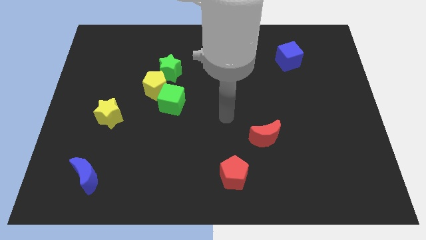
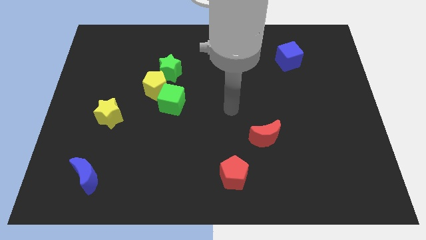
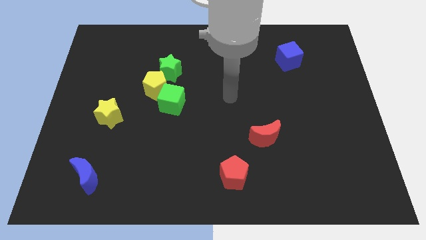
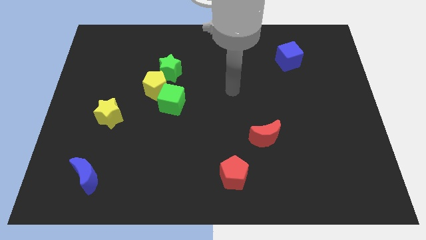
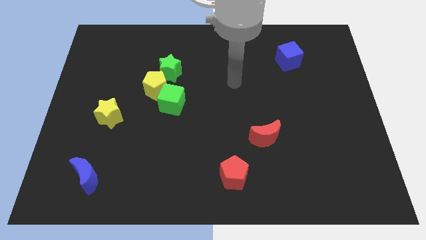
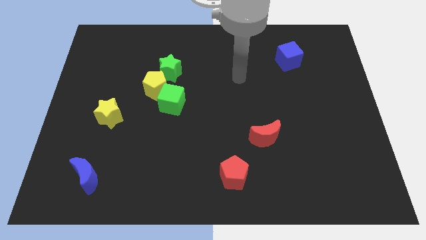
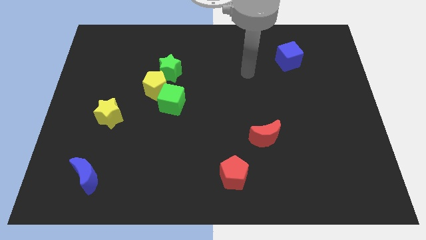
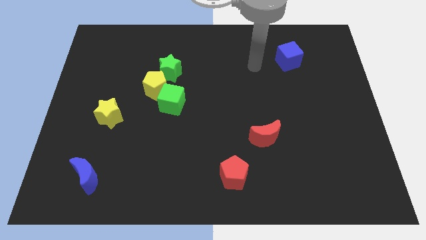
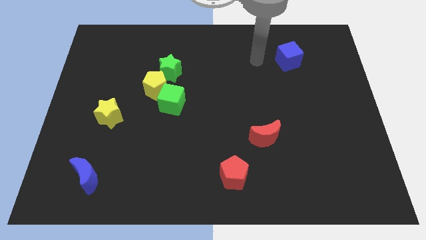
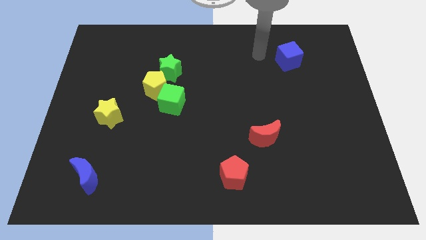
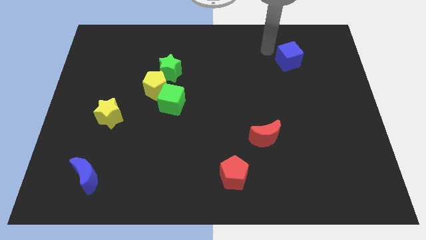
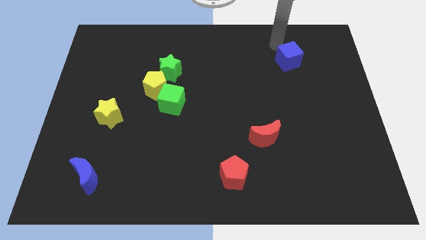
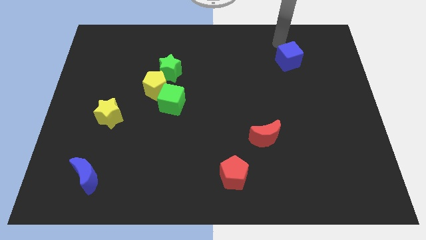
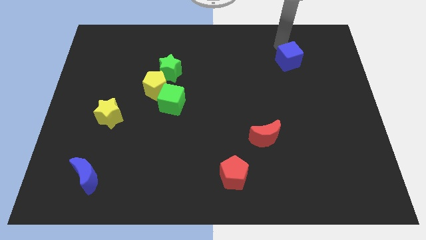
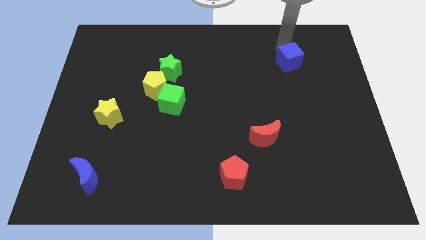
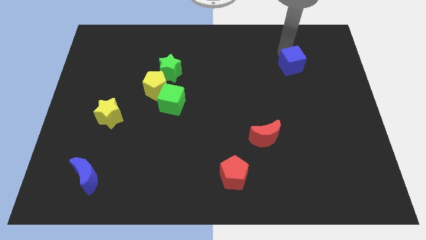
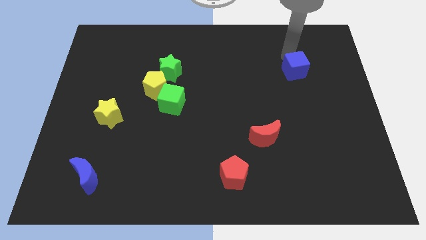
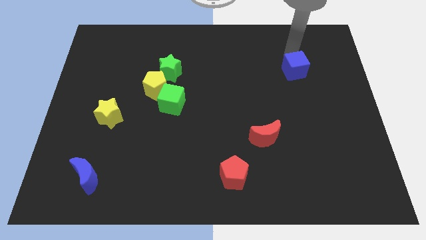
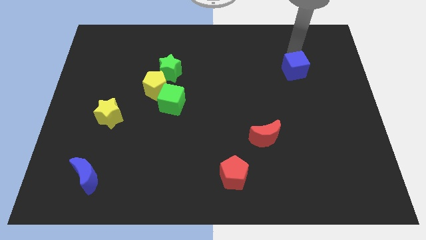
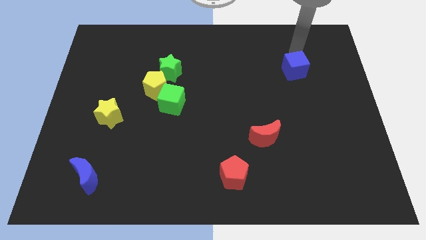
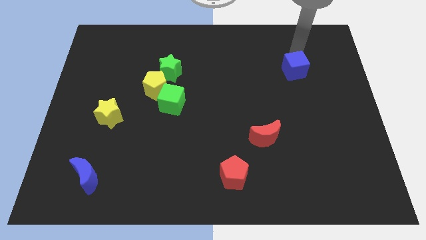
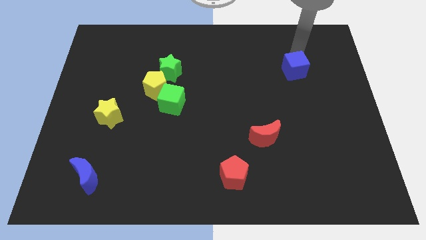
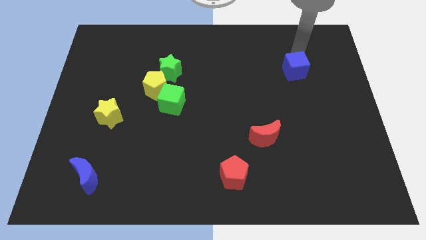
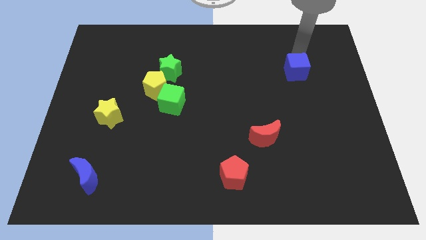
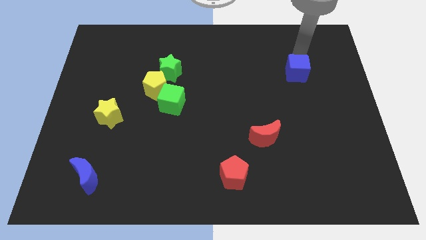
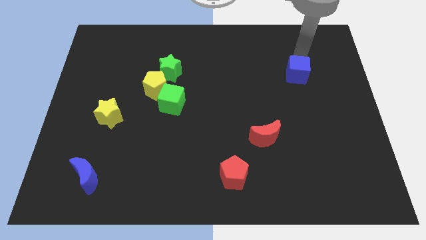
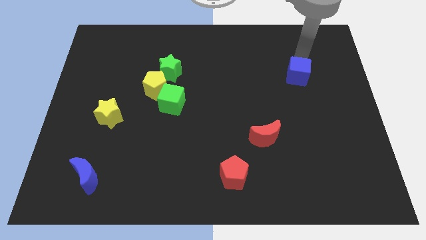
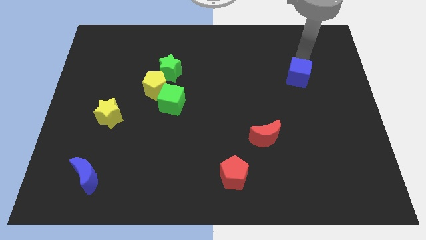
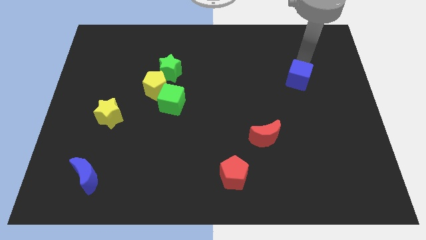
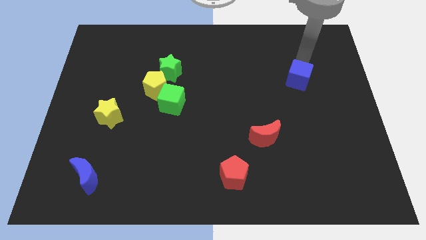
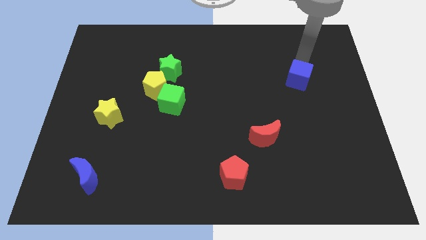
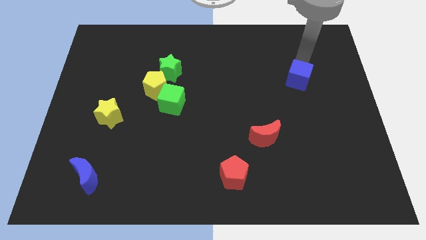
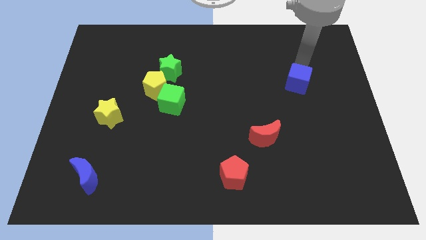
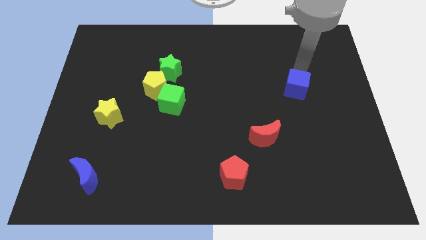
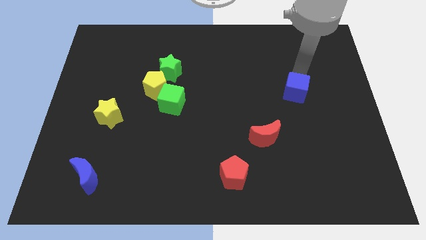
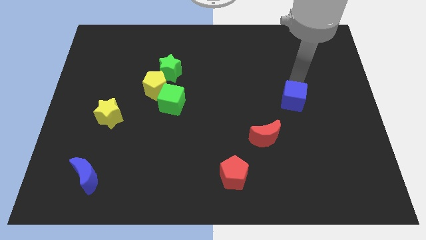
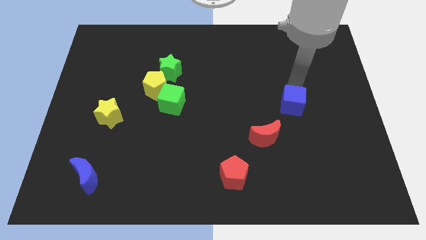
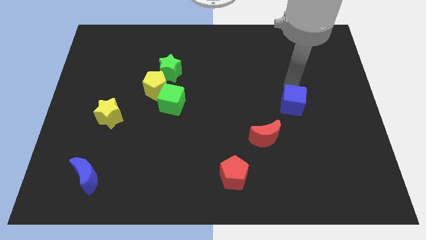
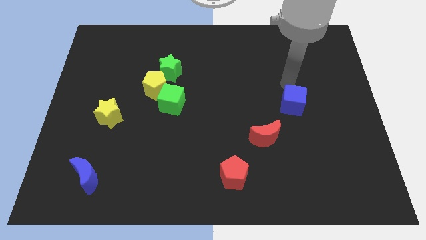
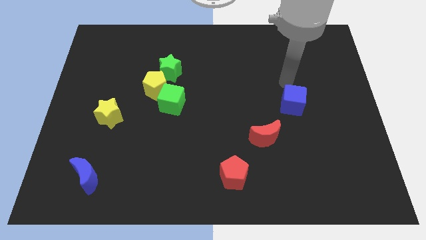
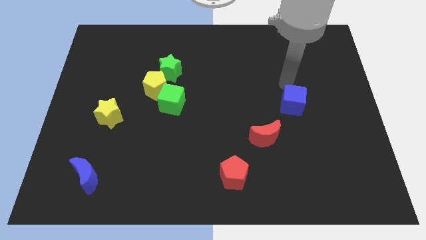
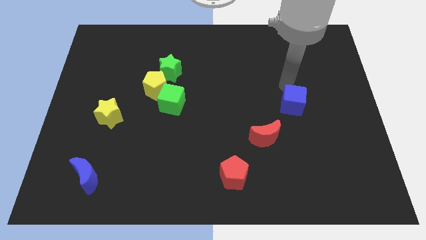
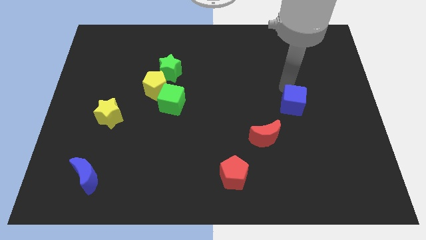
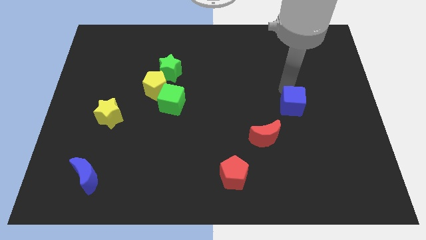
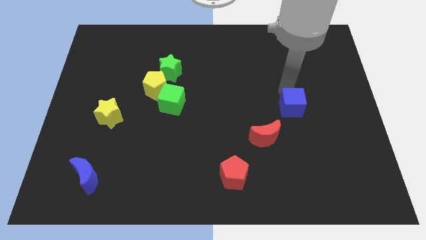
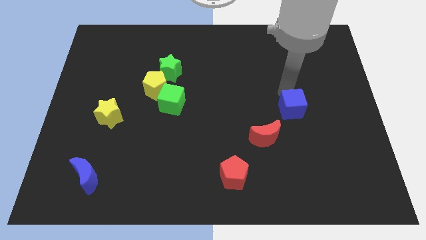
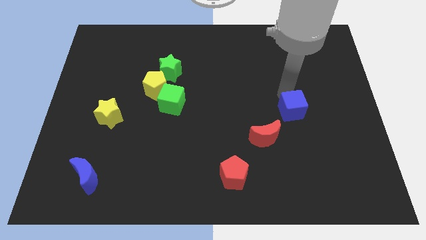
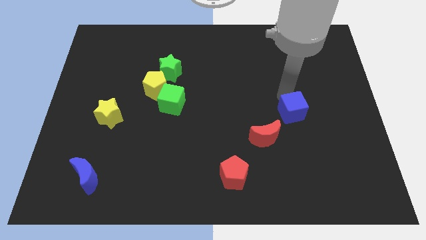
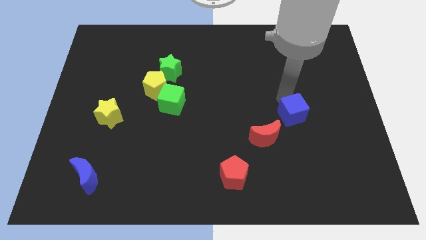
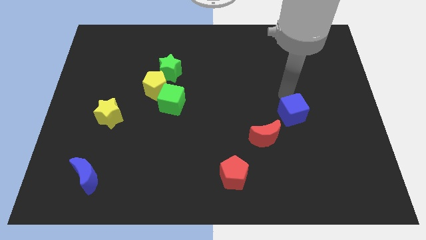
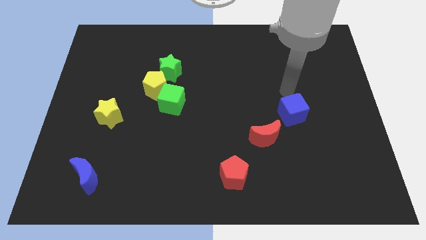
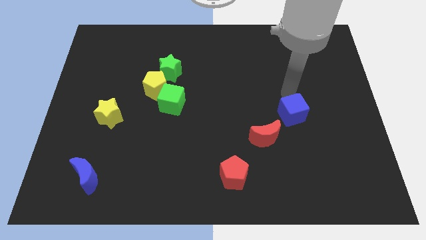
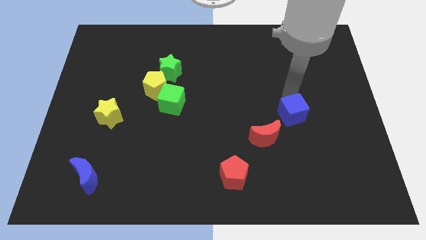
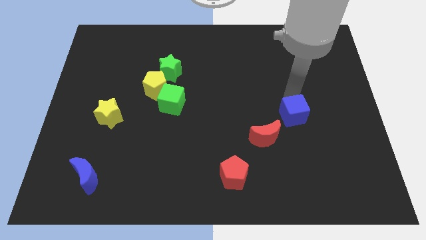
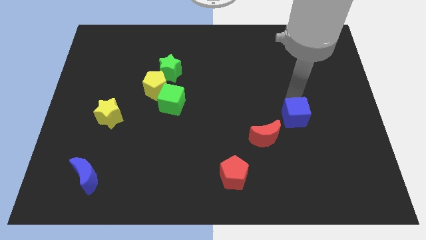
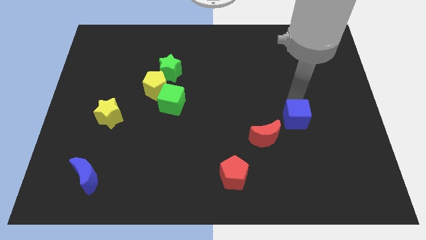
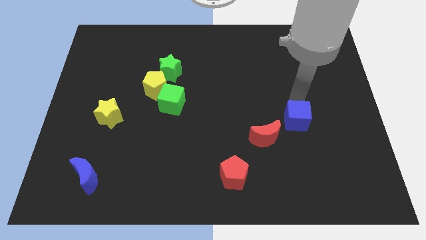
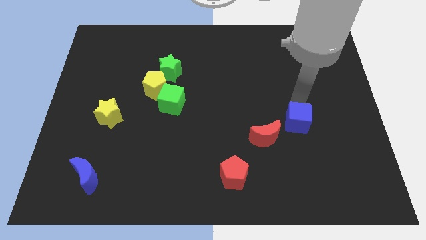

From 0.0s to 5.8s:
push the blue cube downwards

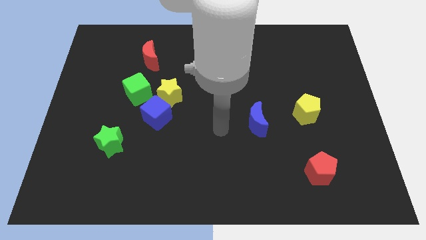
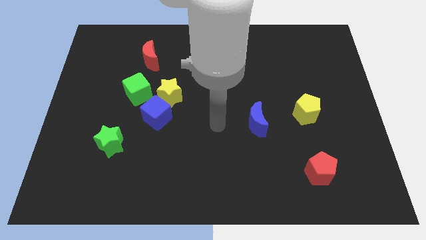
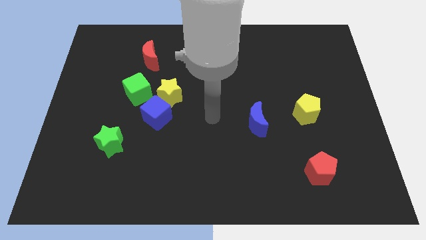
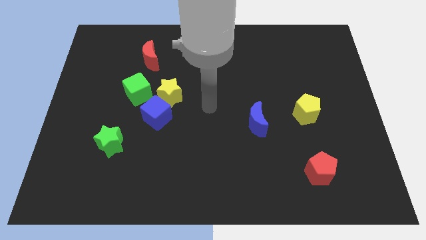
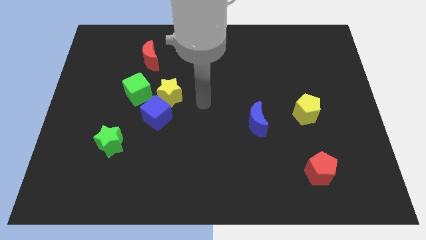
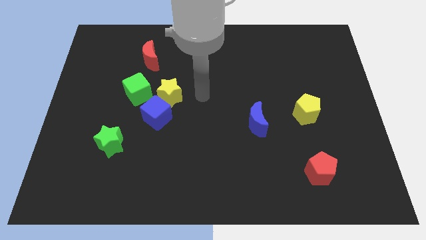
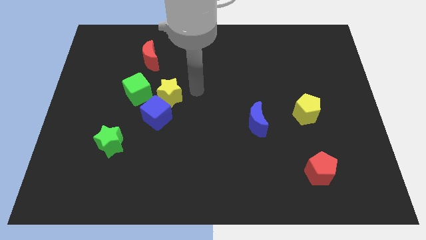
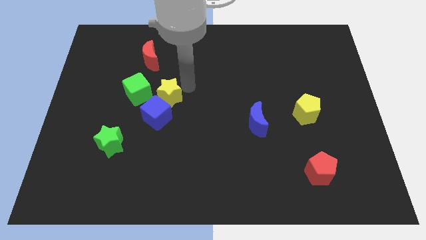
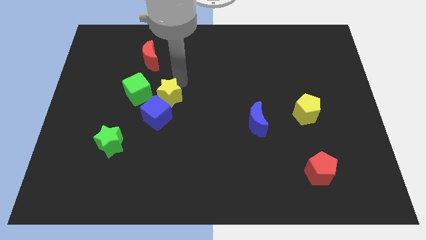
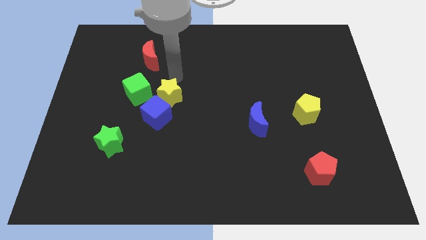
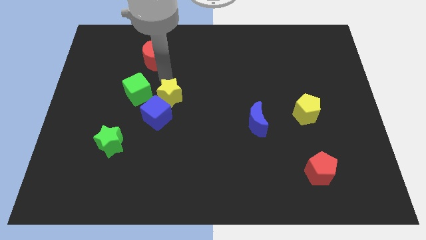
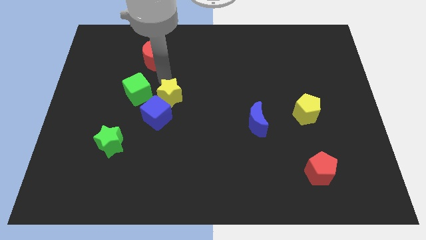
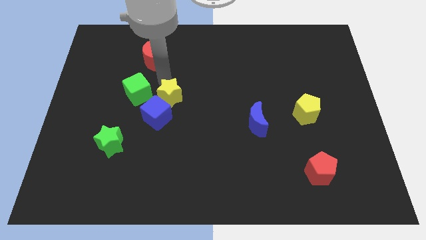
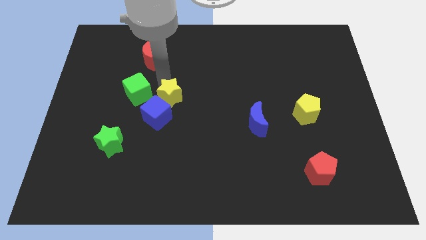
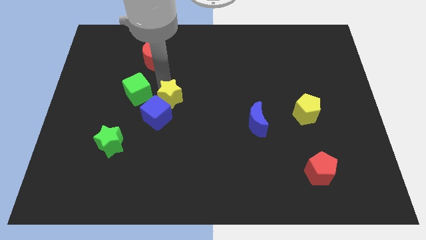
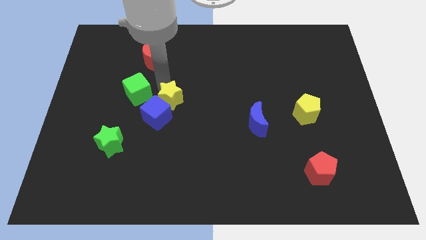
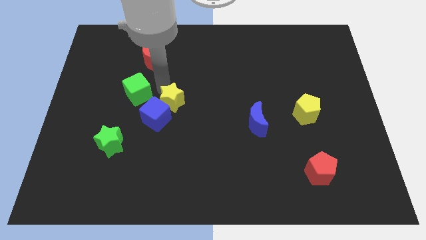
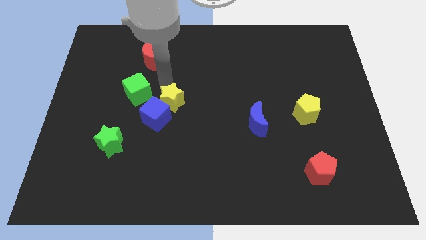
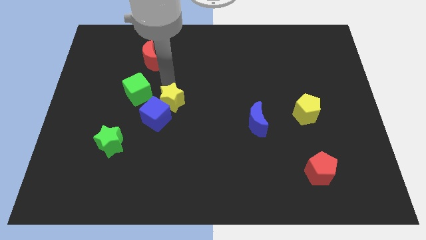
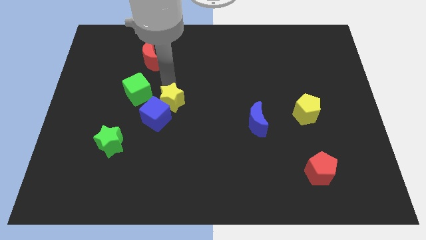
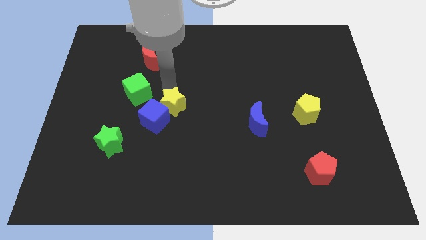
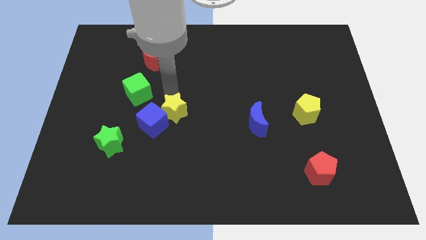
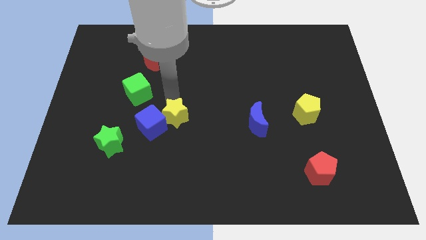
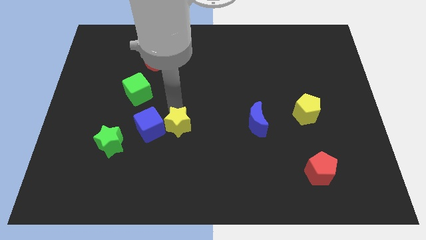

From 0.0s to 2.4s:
slide the yellow star slightly downwards
